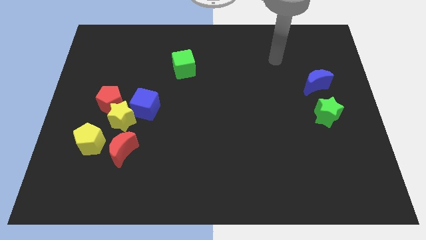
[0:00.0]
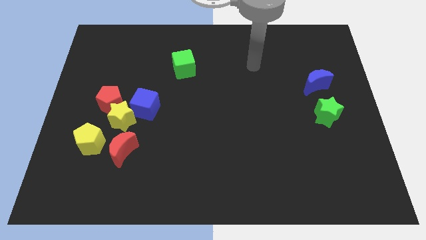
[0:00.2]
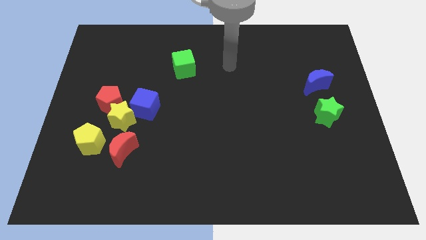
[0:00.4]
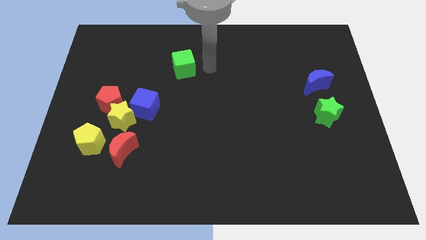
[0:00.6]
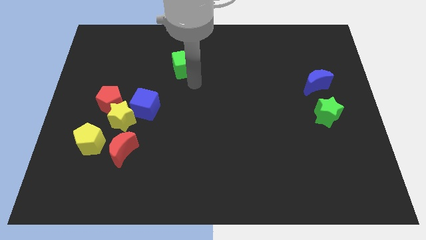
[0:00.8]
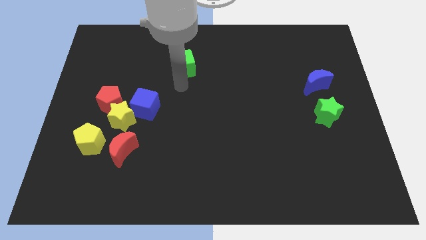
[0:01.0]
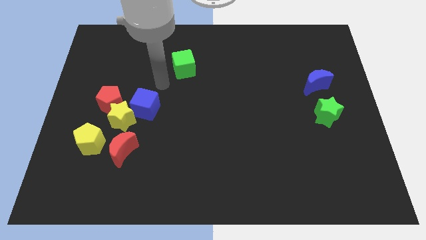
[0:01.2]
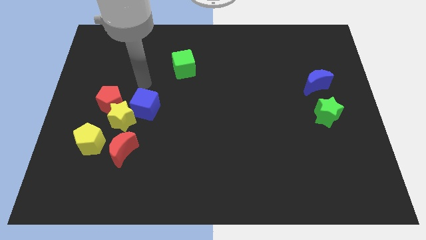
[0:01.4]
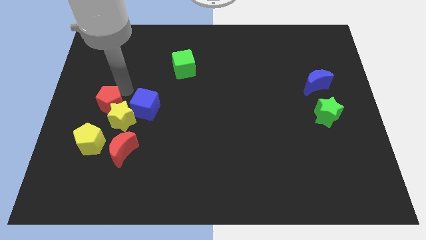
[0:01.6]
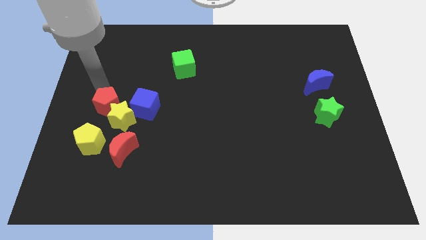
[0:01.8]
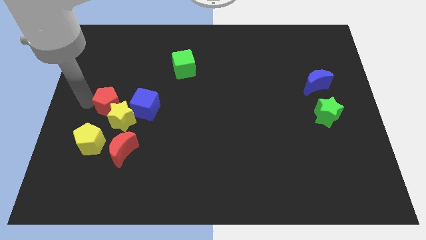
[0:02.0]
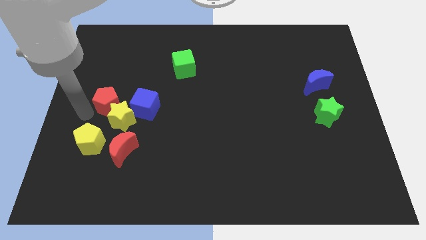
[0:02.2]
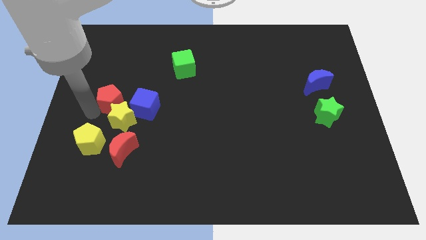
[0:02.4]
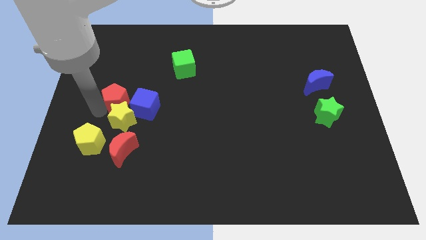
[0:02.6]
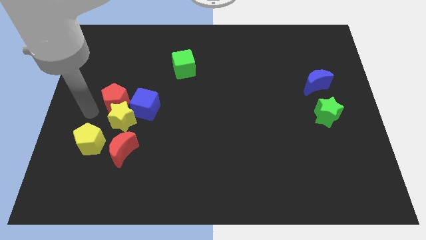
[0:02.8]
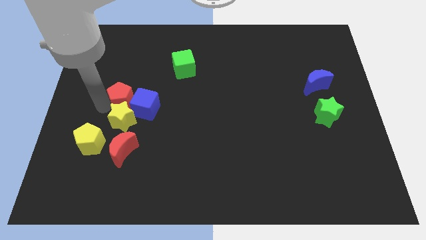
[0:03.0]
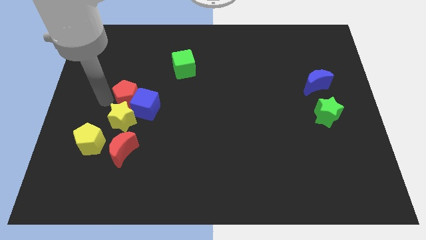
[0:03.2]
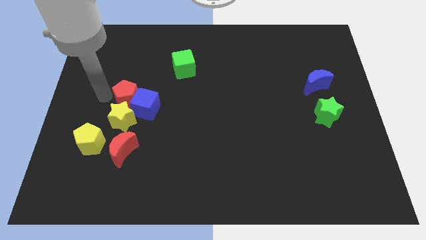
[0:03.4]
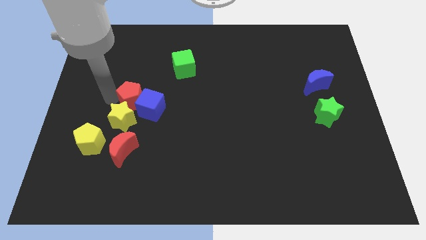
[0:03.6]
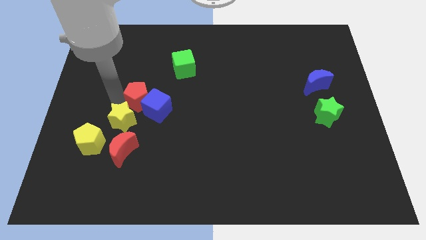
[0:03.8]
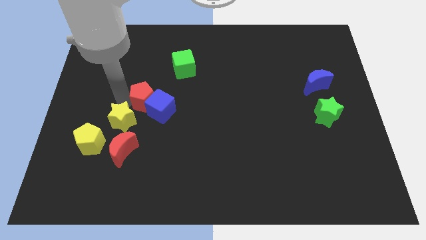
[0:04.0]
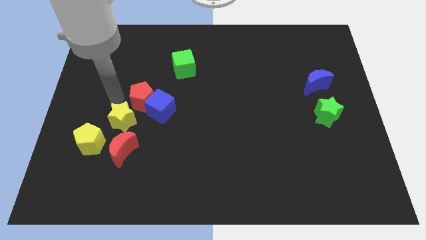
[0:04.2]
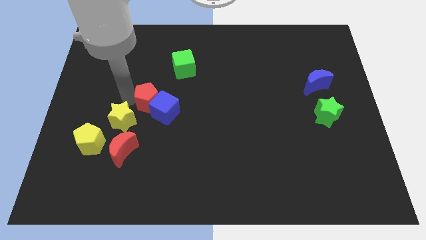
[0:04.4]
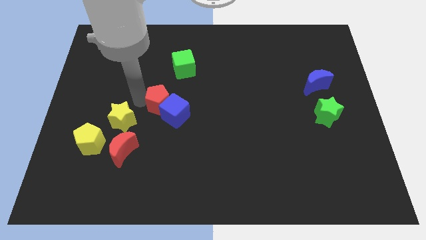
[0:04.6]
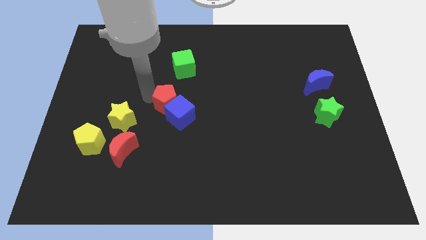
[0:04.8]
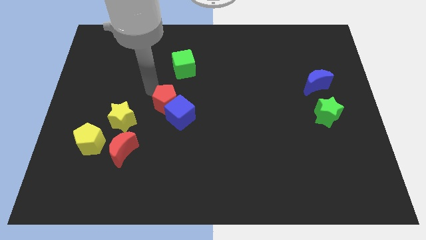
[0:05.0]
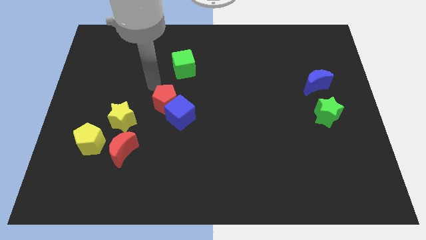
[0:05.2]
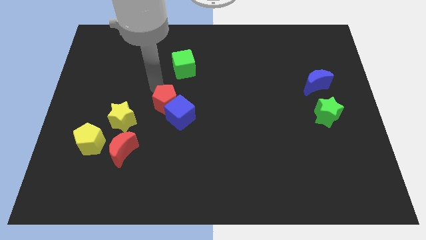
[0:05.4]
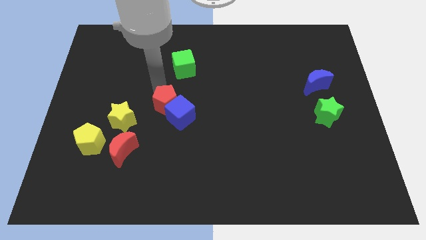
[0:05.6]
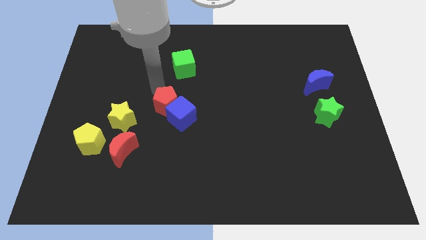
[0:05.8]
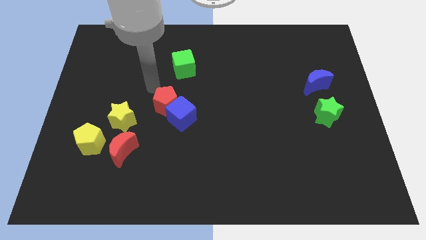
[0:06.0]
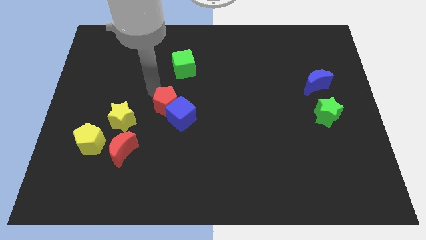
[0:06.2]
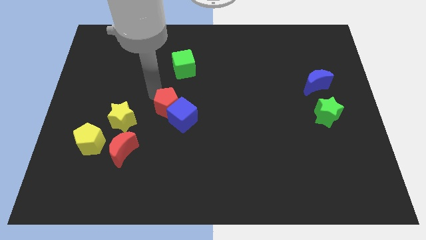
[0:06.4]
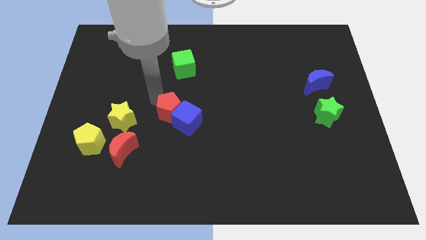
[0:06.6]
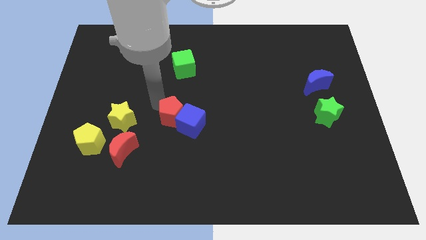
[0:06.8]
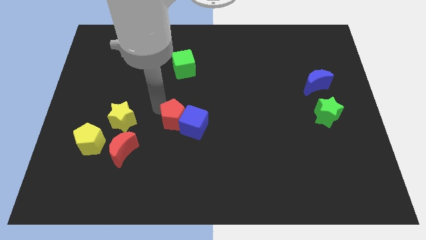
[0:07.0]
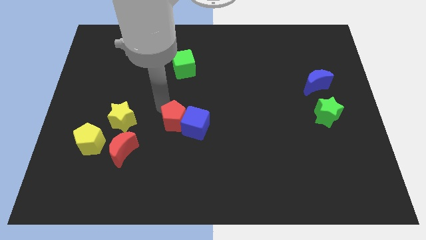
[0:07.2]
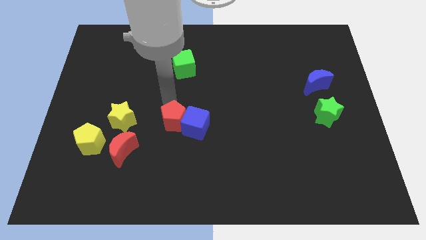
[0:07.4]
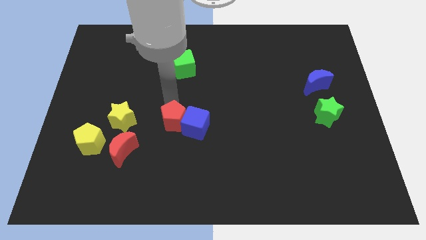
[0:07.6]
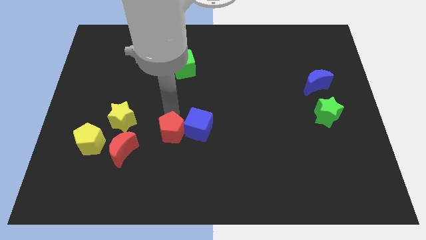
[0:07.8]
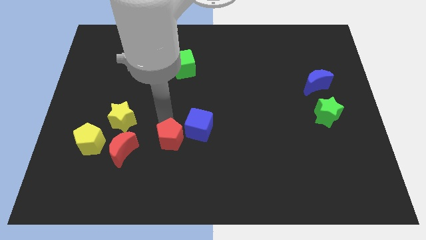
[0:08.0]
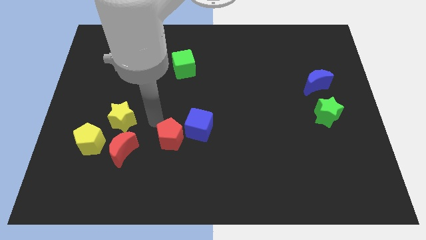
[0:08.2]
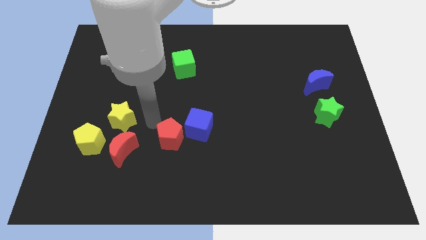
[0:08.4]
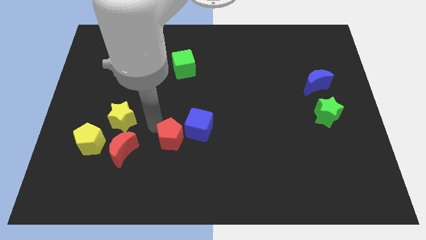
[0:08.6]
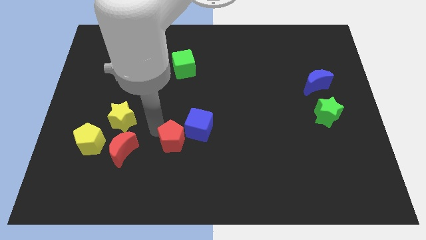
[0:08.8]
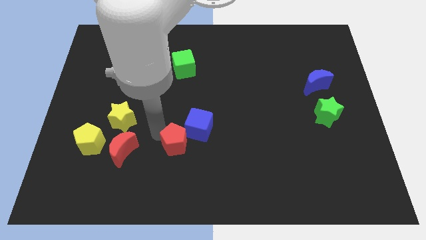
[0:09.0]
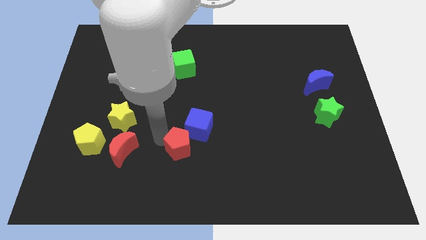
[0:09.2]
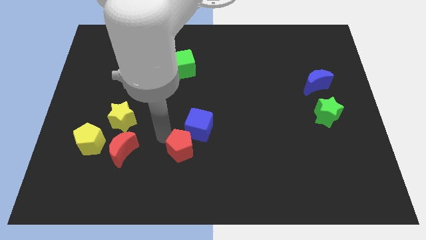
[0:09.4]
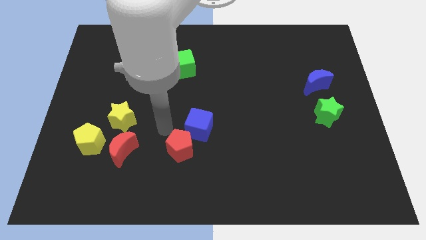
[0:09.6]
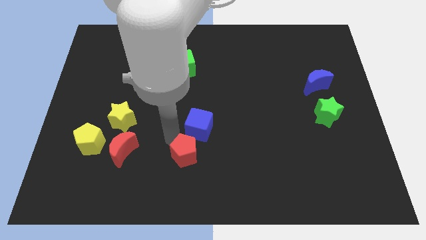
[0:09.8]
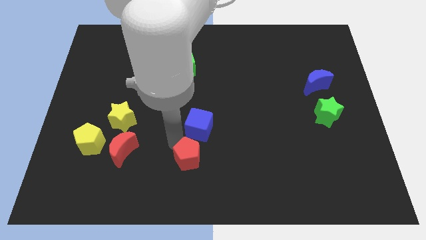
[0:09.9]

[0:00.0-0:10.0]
slide the red pentagon to the bottom

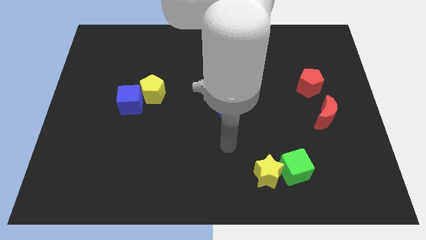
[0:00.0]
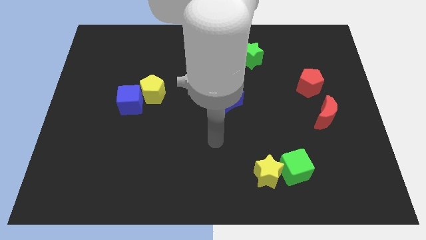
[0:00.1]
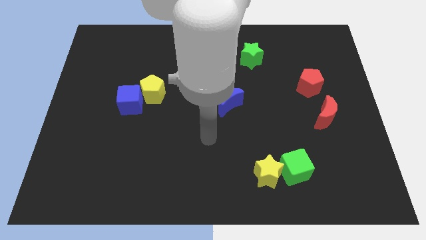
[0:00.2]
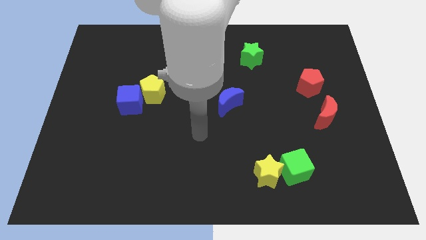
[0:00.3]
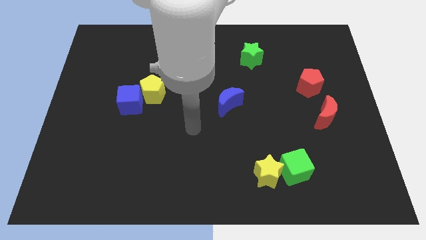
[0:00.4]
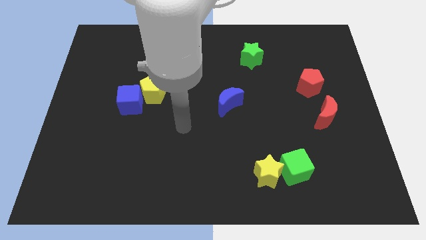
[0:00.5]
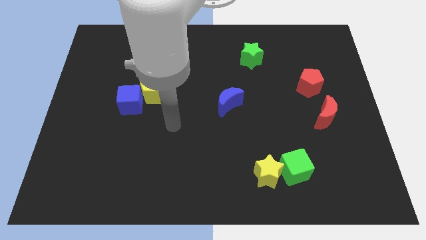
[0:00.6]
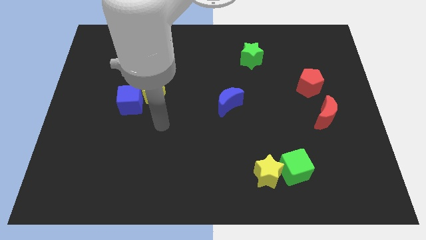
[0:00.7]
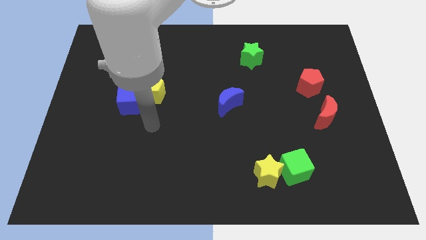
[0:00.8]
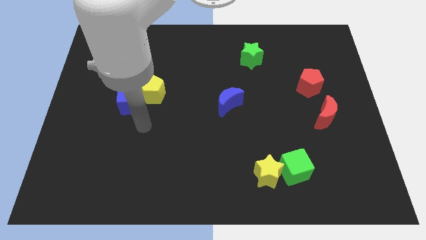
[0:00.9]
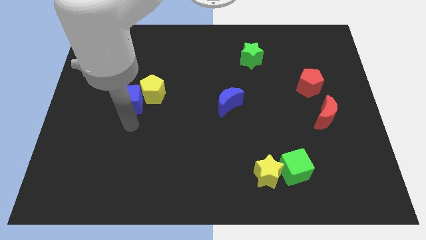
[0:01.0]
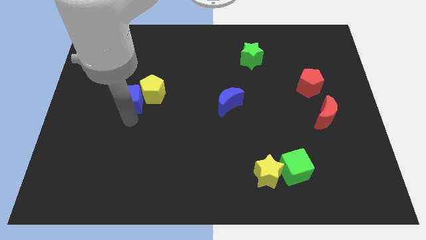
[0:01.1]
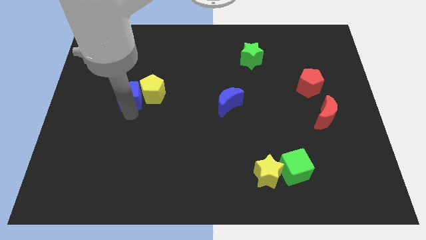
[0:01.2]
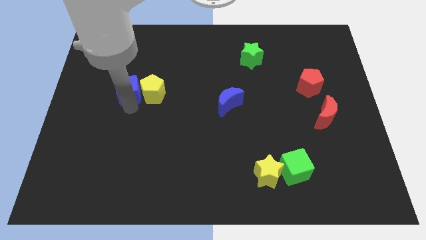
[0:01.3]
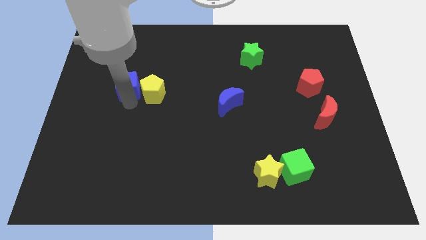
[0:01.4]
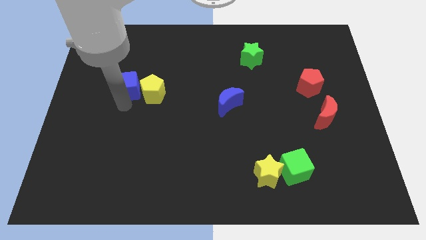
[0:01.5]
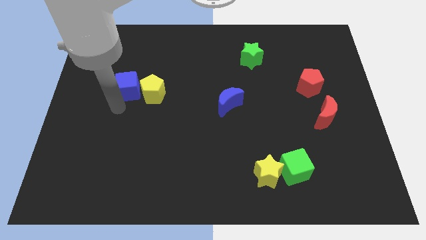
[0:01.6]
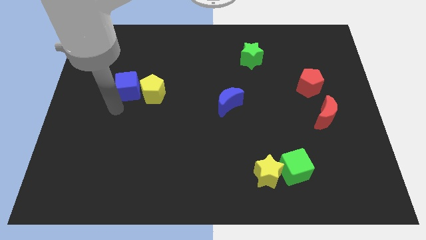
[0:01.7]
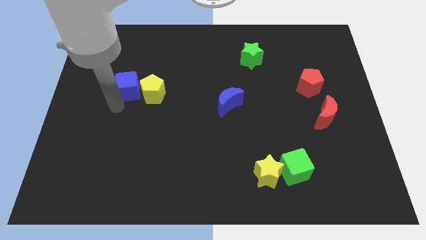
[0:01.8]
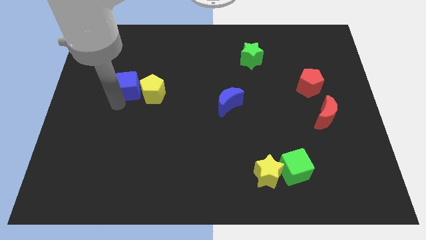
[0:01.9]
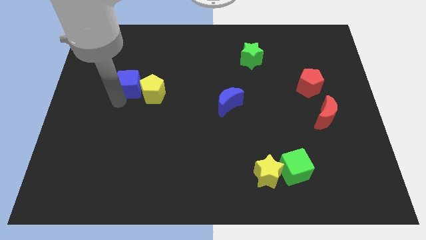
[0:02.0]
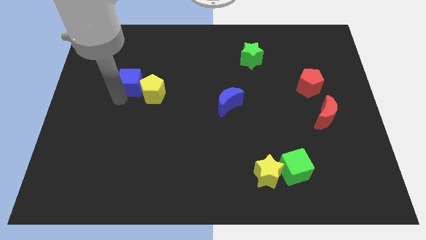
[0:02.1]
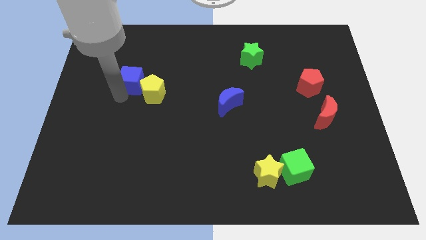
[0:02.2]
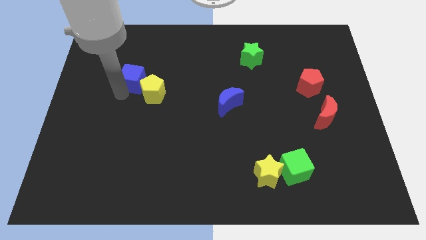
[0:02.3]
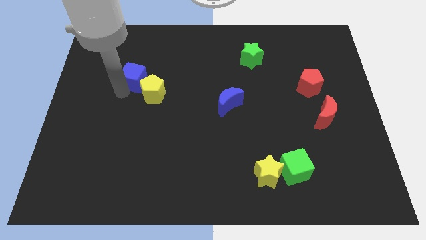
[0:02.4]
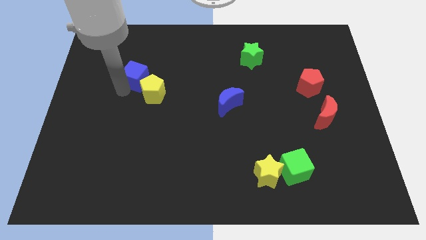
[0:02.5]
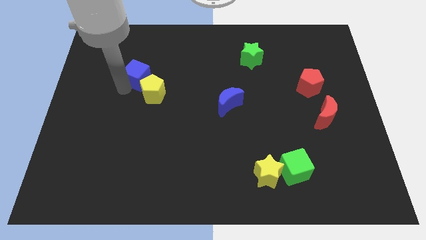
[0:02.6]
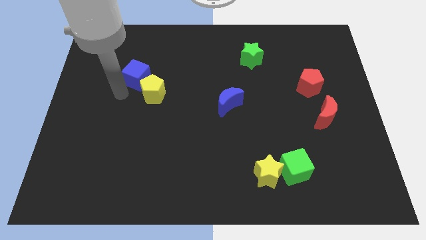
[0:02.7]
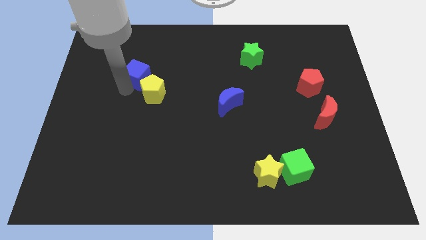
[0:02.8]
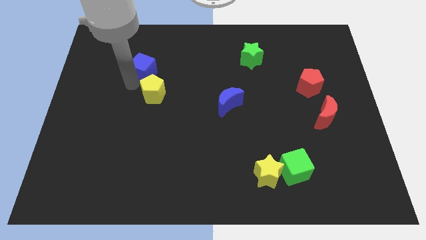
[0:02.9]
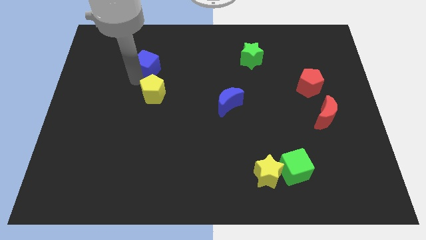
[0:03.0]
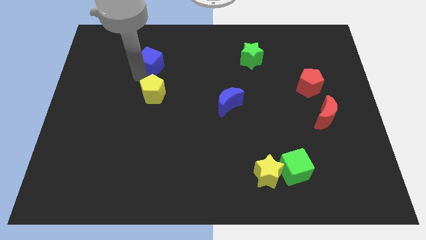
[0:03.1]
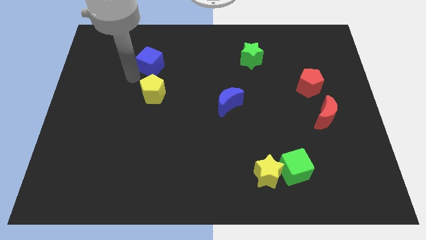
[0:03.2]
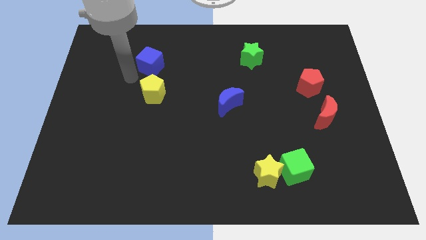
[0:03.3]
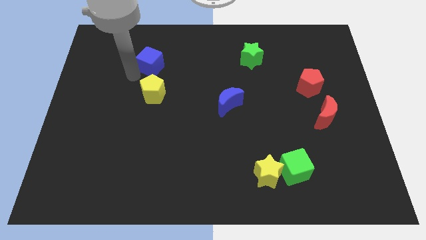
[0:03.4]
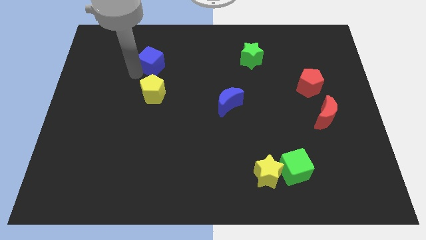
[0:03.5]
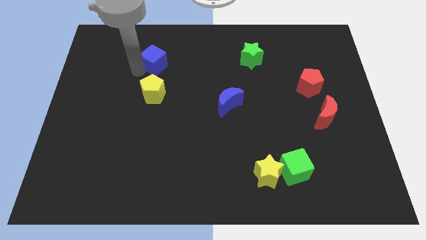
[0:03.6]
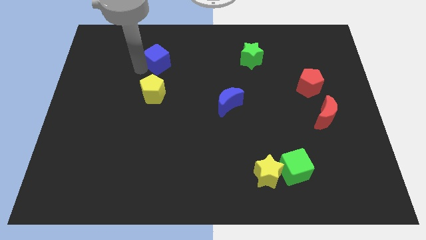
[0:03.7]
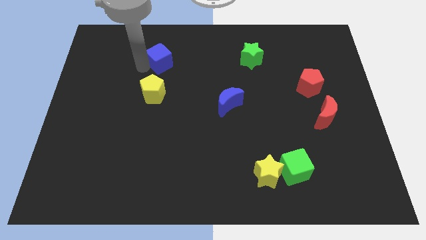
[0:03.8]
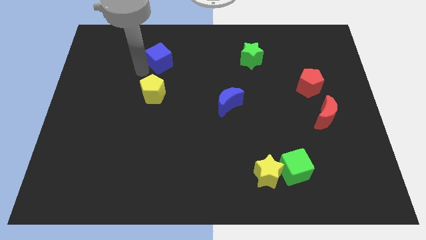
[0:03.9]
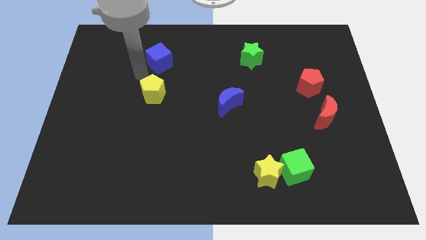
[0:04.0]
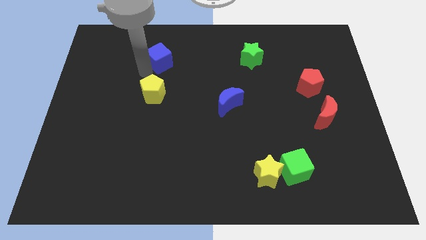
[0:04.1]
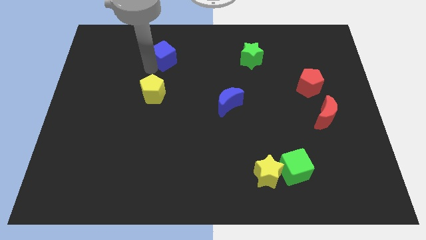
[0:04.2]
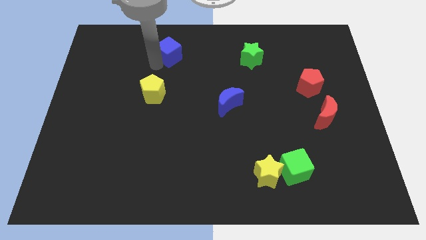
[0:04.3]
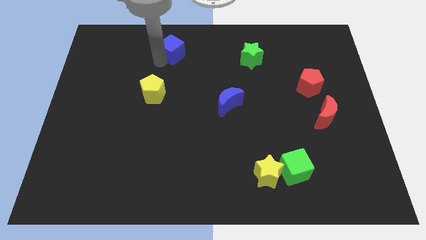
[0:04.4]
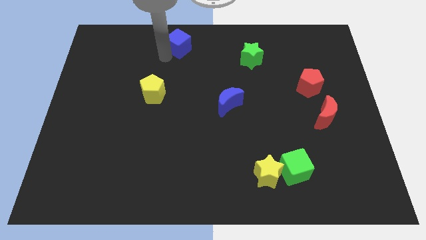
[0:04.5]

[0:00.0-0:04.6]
slide the blue cube to the towards your base
